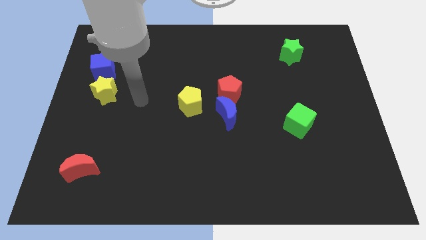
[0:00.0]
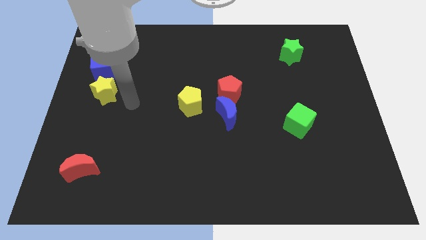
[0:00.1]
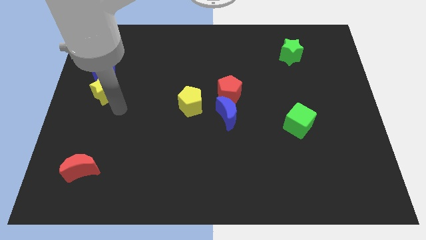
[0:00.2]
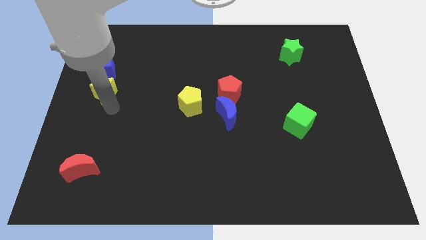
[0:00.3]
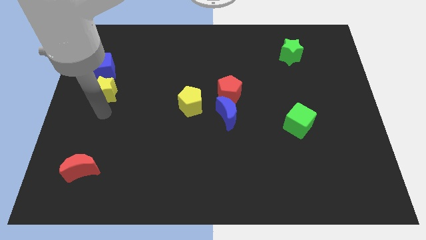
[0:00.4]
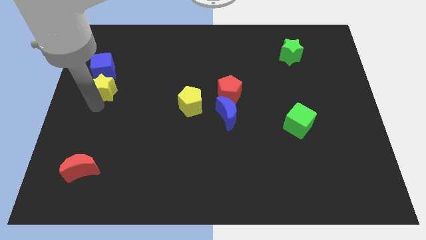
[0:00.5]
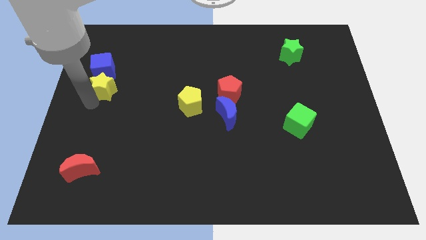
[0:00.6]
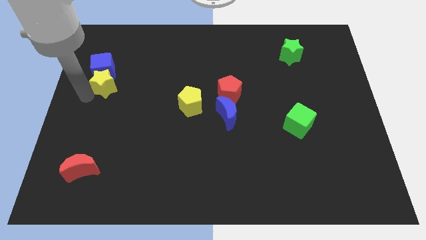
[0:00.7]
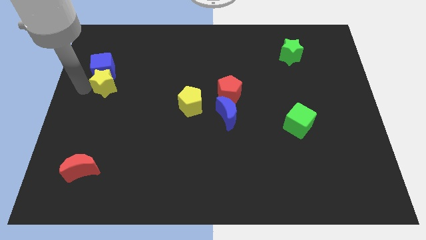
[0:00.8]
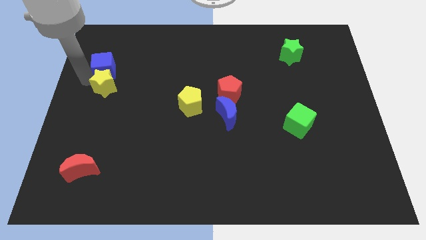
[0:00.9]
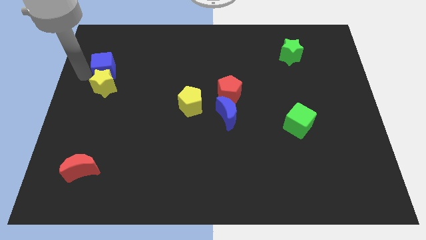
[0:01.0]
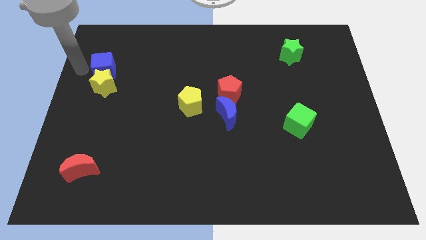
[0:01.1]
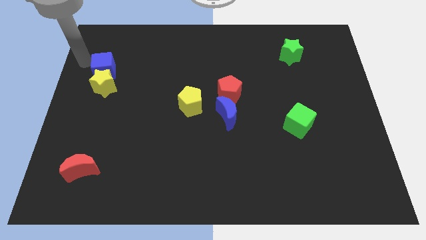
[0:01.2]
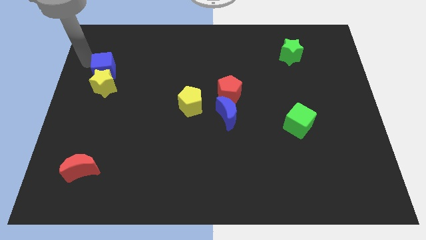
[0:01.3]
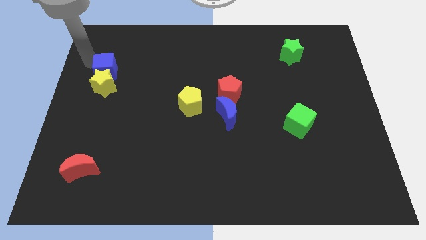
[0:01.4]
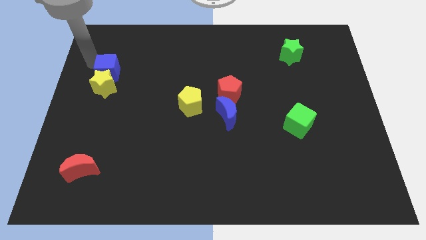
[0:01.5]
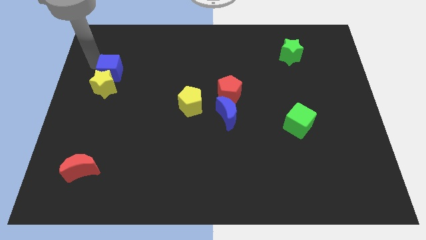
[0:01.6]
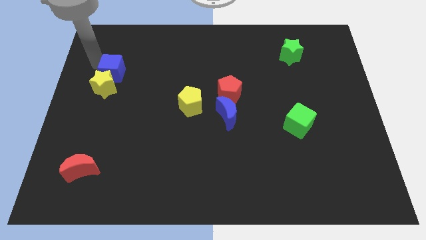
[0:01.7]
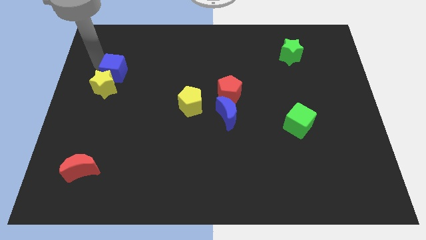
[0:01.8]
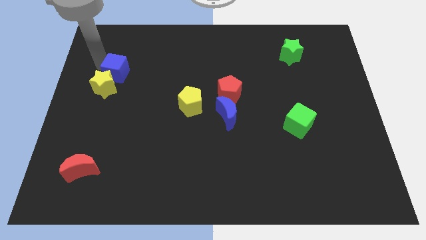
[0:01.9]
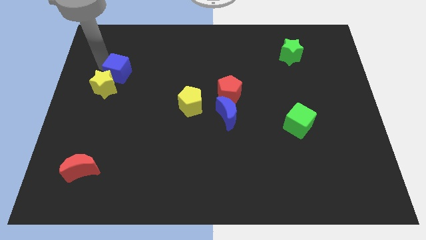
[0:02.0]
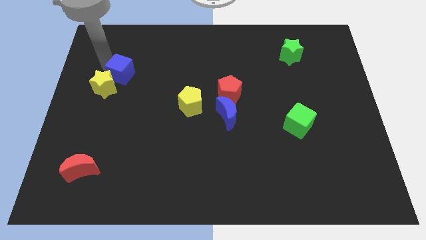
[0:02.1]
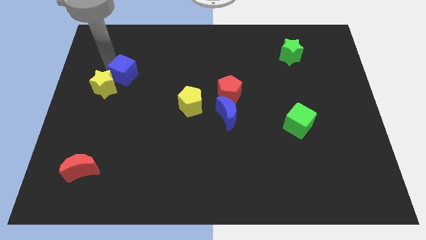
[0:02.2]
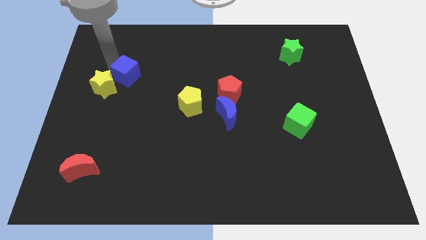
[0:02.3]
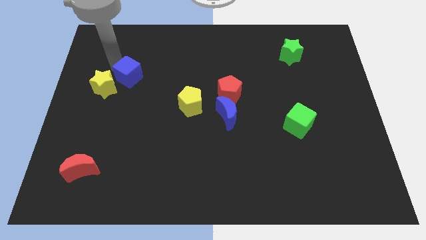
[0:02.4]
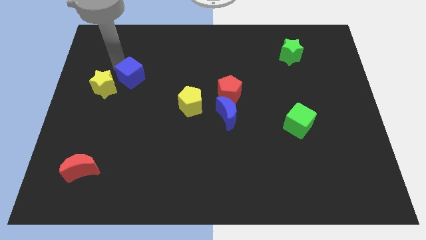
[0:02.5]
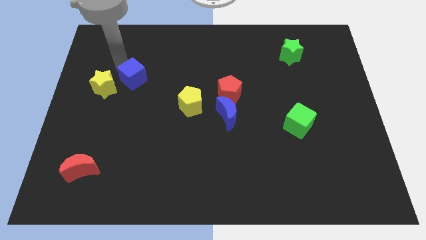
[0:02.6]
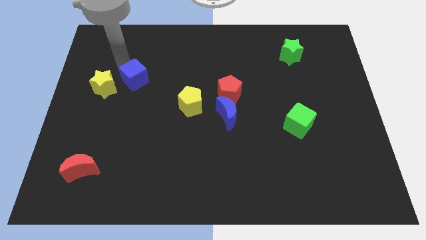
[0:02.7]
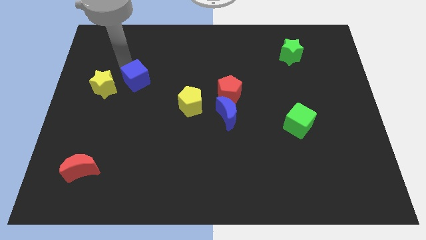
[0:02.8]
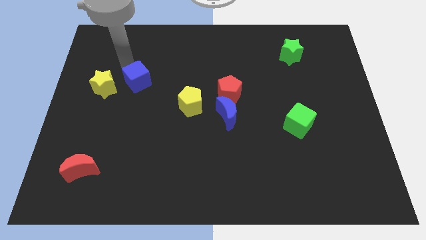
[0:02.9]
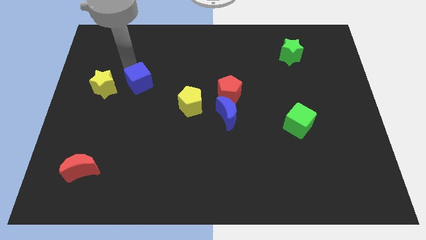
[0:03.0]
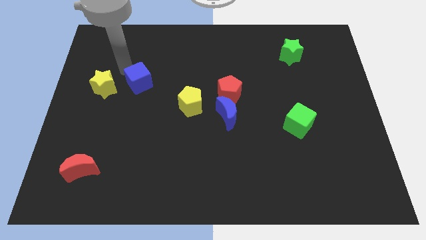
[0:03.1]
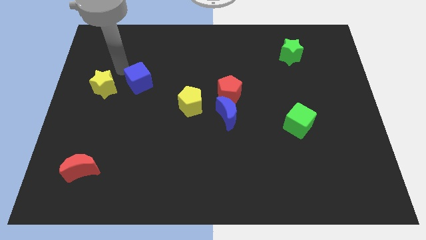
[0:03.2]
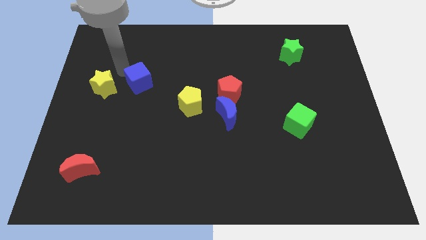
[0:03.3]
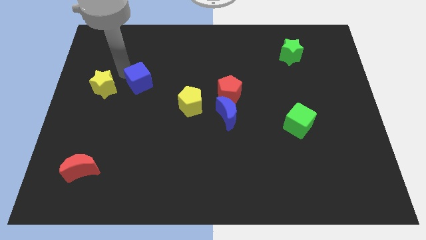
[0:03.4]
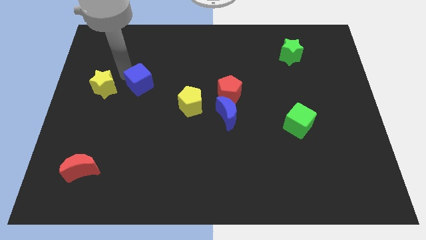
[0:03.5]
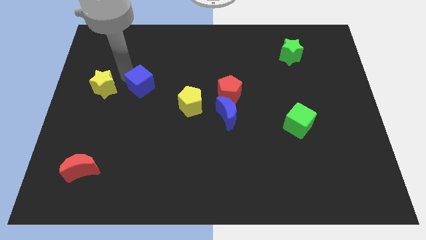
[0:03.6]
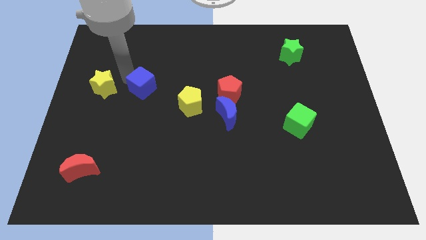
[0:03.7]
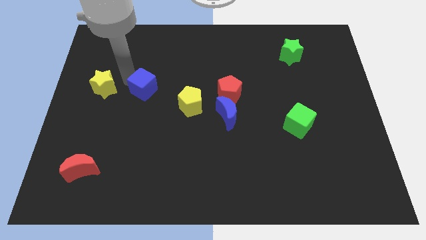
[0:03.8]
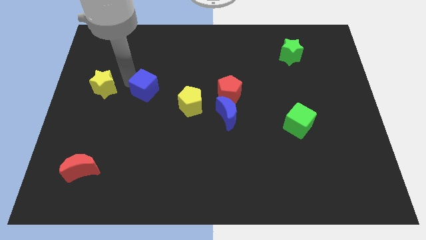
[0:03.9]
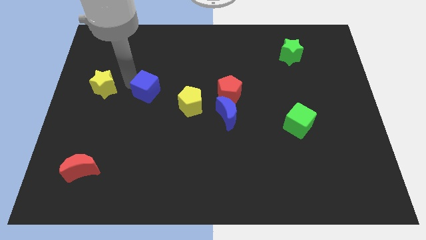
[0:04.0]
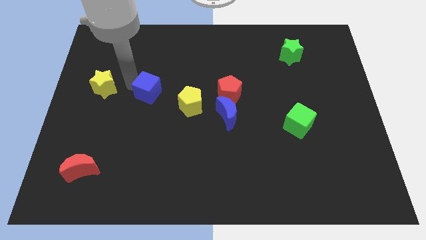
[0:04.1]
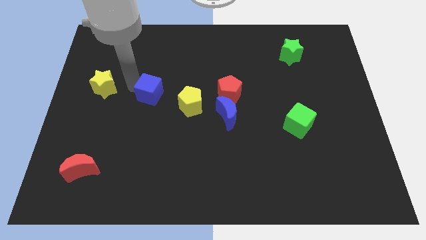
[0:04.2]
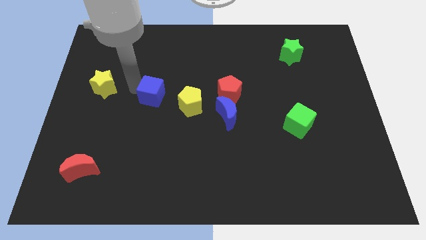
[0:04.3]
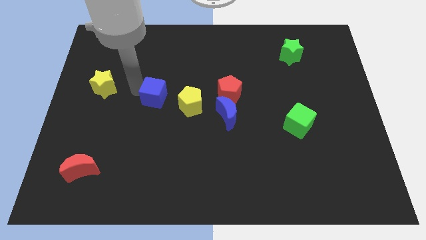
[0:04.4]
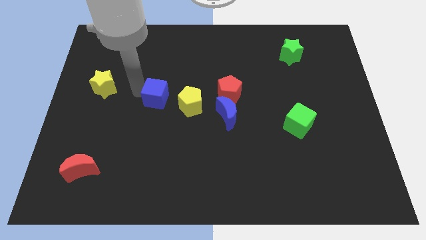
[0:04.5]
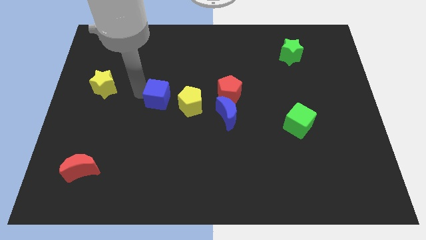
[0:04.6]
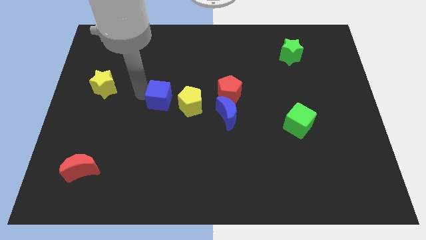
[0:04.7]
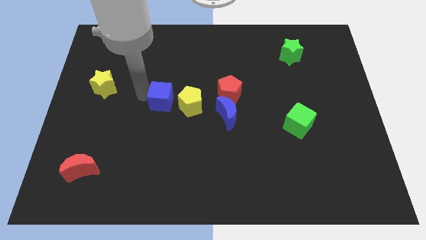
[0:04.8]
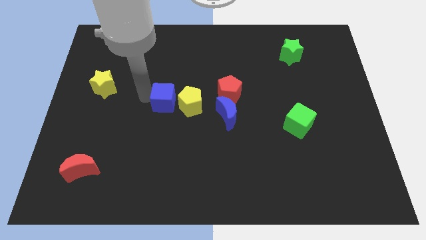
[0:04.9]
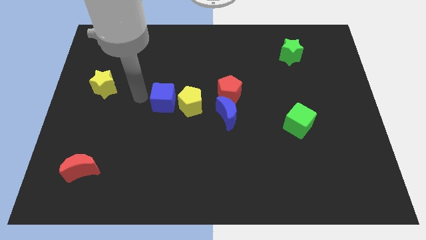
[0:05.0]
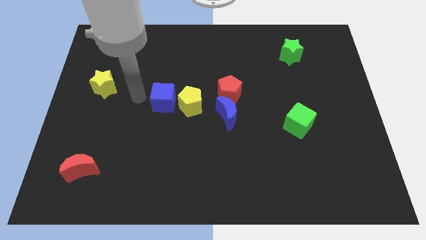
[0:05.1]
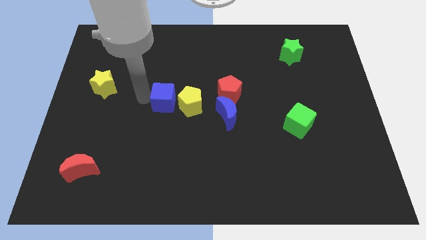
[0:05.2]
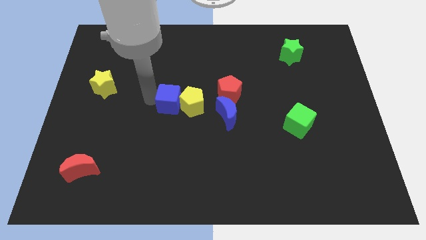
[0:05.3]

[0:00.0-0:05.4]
push the blue cube close to the yellow pentagon

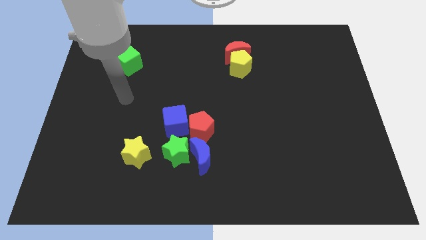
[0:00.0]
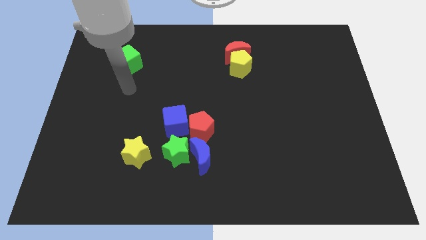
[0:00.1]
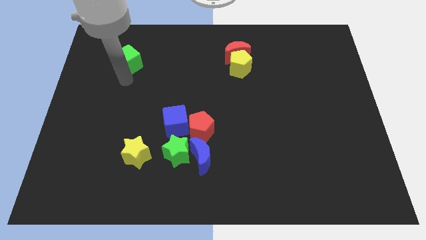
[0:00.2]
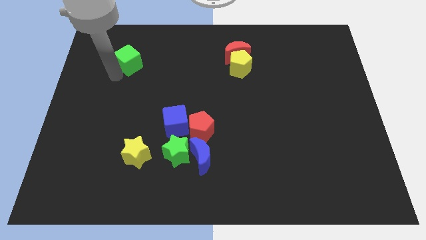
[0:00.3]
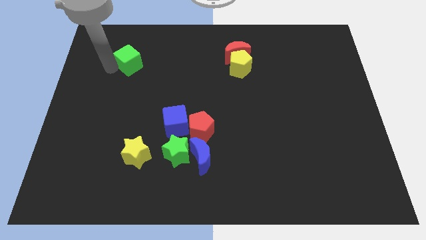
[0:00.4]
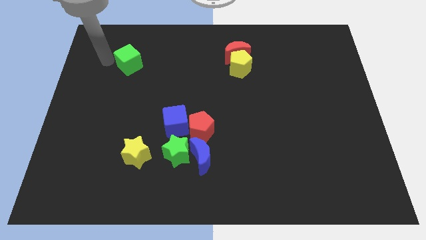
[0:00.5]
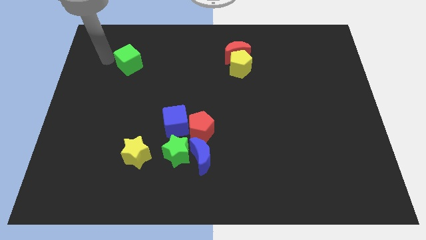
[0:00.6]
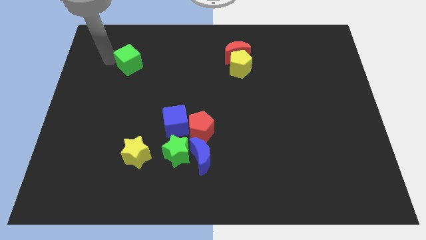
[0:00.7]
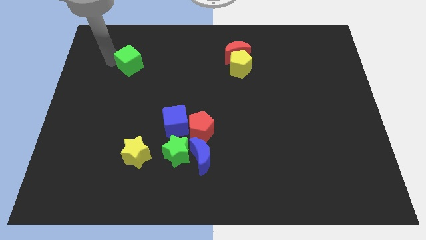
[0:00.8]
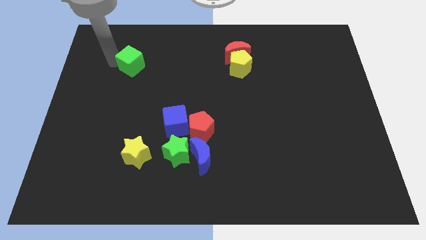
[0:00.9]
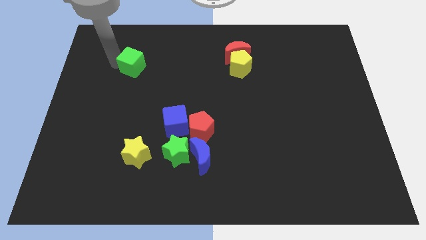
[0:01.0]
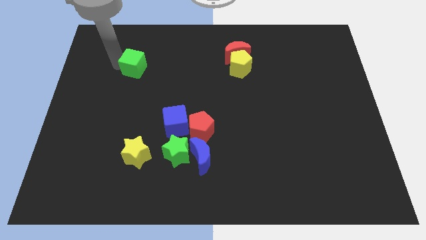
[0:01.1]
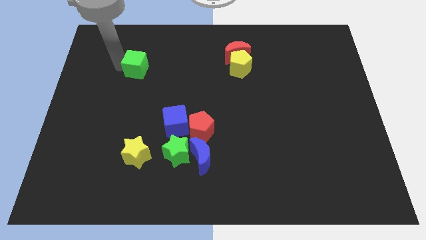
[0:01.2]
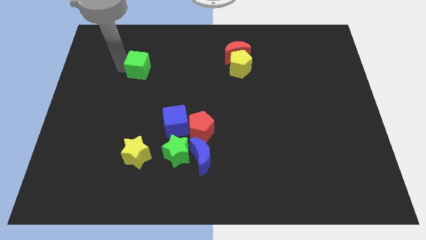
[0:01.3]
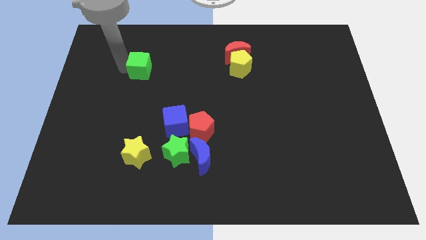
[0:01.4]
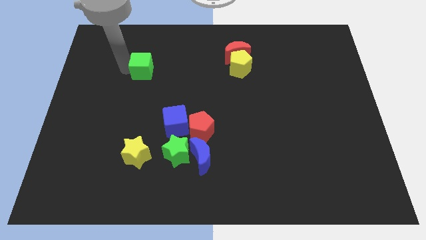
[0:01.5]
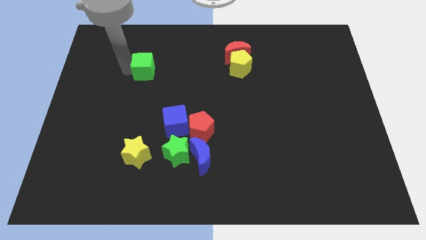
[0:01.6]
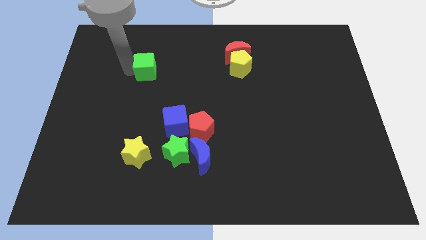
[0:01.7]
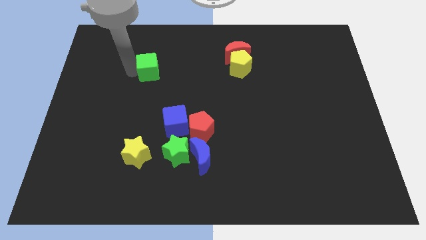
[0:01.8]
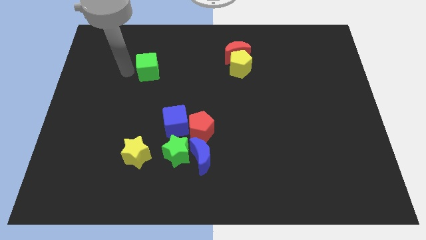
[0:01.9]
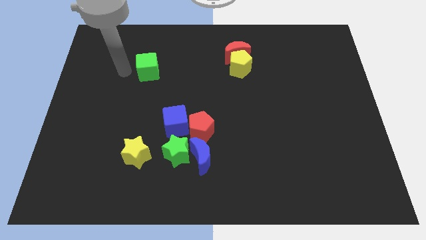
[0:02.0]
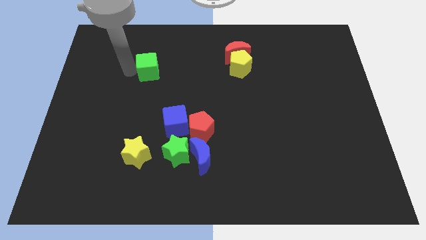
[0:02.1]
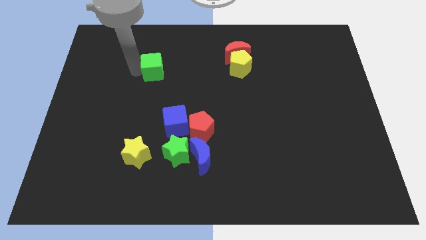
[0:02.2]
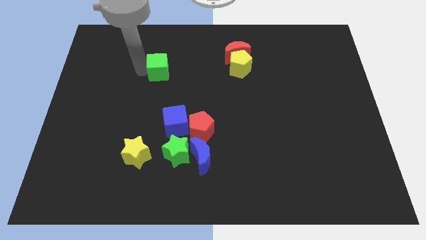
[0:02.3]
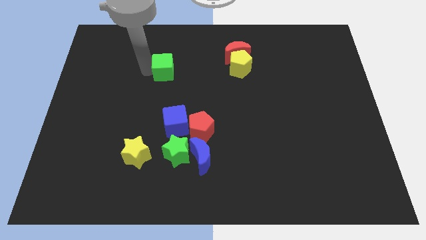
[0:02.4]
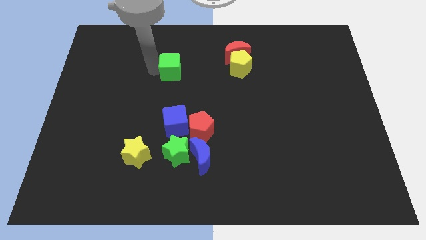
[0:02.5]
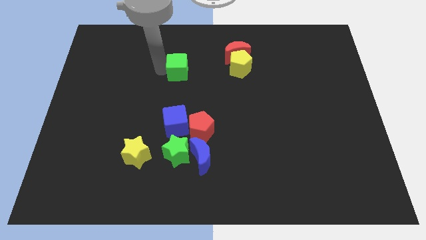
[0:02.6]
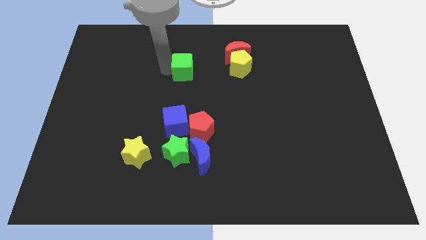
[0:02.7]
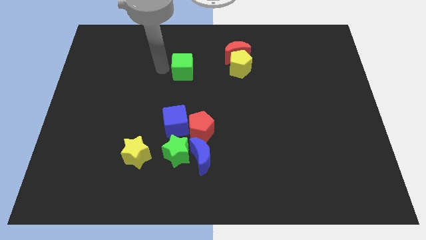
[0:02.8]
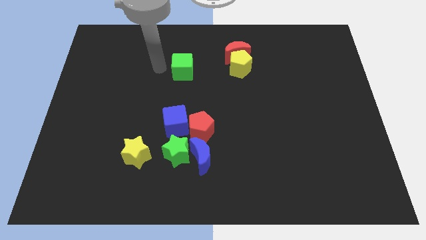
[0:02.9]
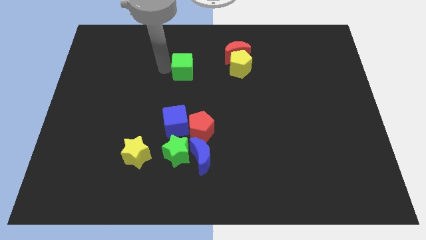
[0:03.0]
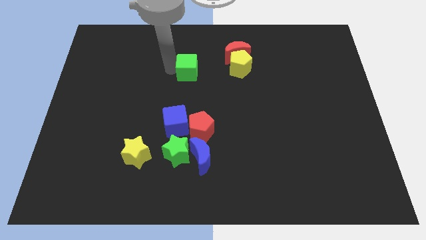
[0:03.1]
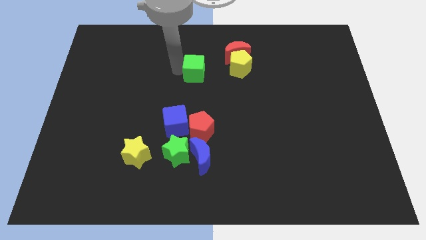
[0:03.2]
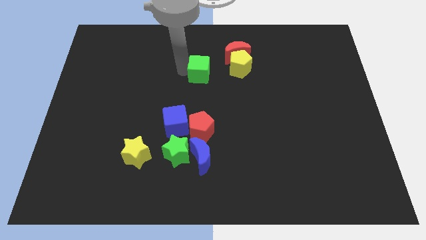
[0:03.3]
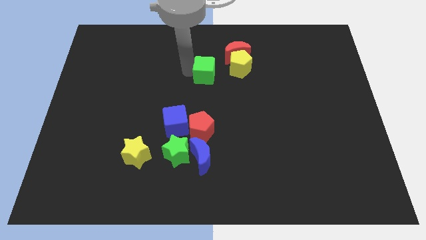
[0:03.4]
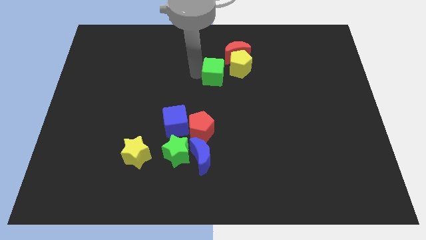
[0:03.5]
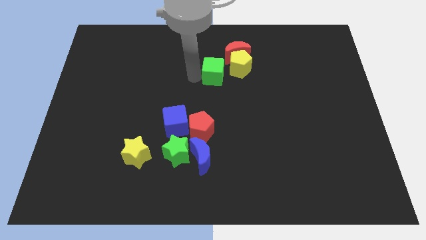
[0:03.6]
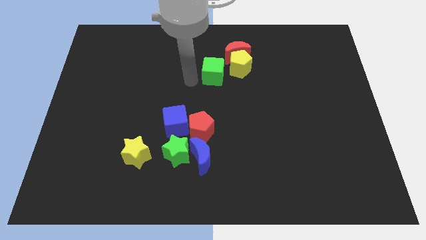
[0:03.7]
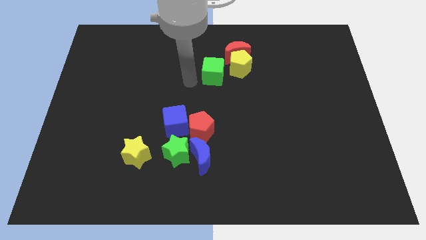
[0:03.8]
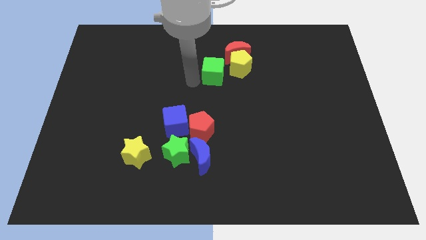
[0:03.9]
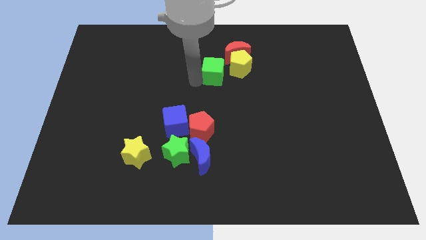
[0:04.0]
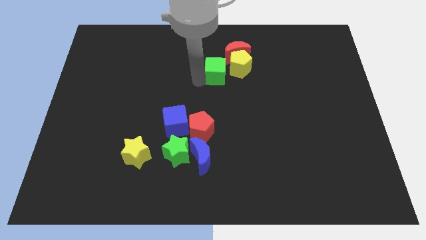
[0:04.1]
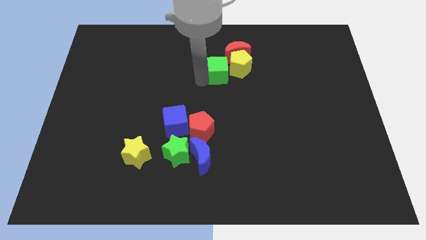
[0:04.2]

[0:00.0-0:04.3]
slide the green cube next to the yellow pentagon
